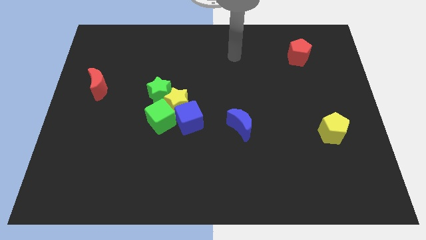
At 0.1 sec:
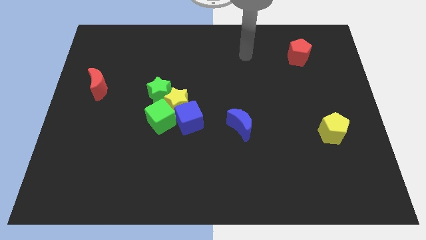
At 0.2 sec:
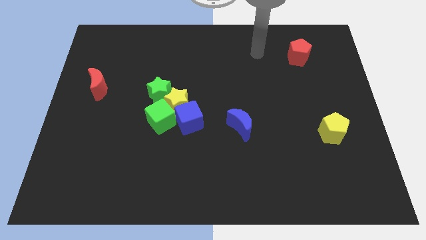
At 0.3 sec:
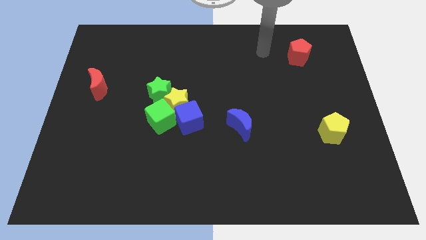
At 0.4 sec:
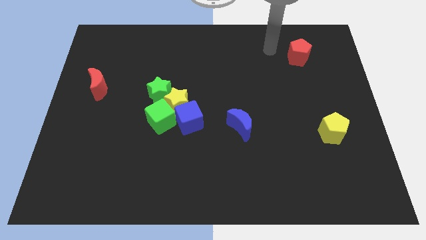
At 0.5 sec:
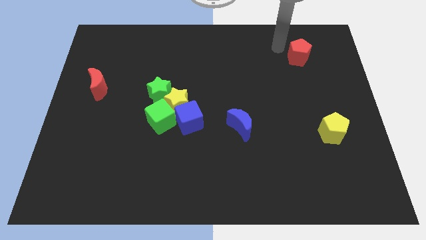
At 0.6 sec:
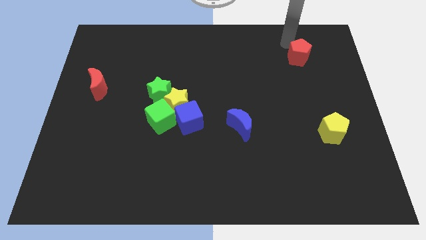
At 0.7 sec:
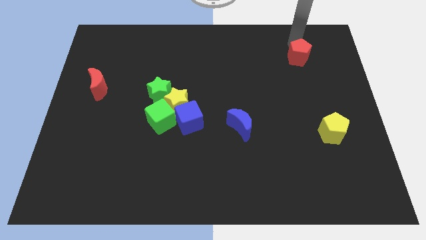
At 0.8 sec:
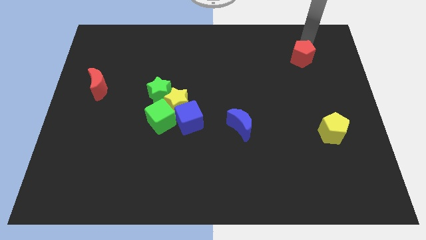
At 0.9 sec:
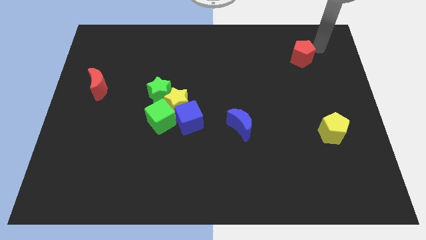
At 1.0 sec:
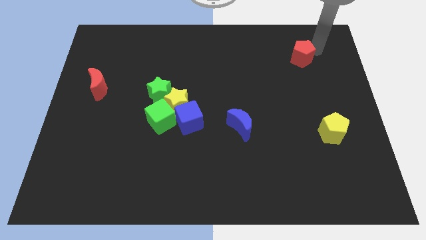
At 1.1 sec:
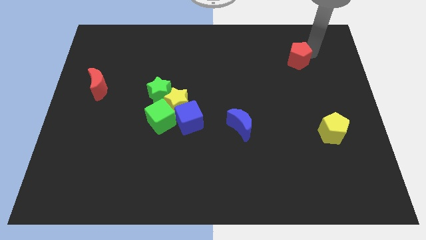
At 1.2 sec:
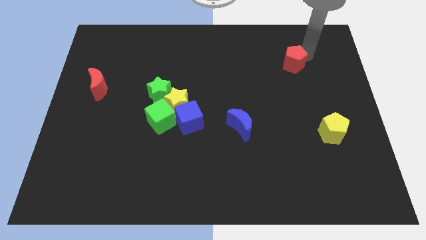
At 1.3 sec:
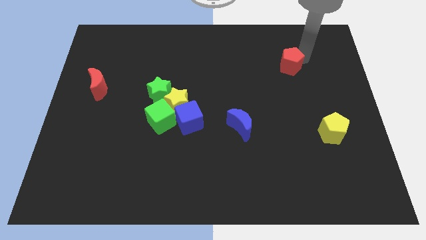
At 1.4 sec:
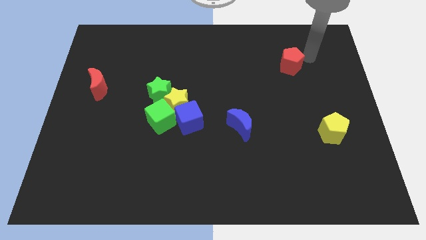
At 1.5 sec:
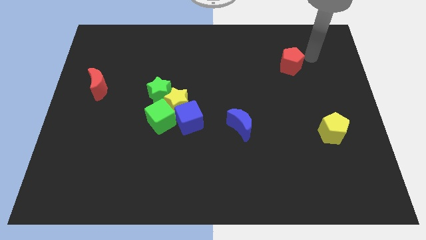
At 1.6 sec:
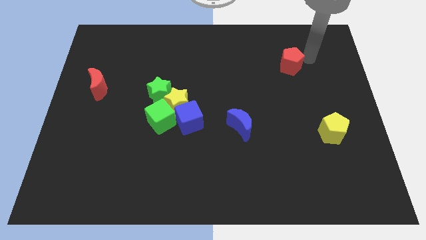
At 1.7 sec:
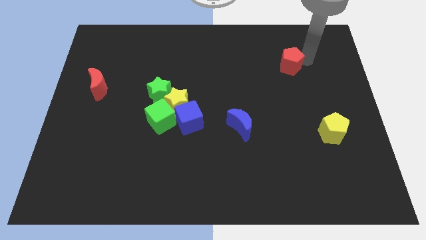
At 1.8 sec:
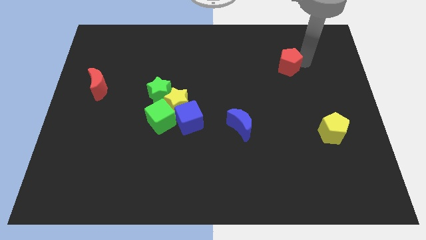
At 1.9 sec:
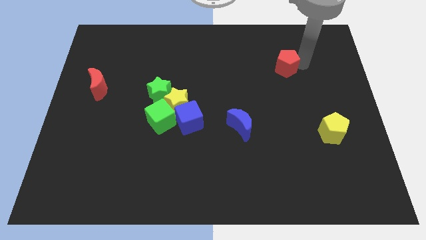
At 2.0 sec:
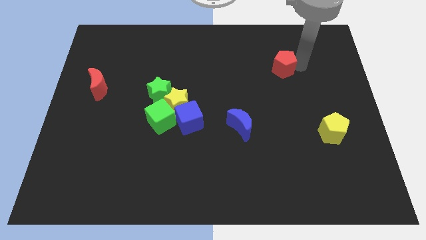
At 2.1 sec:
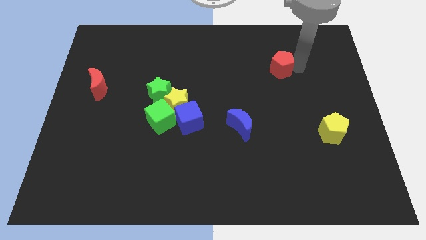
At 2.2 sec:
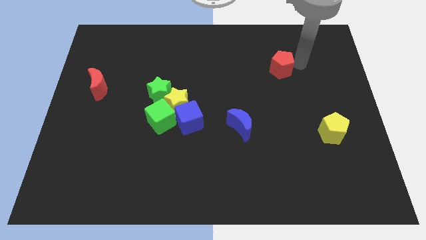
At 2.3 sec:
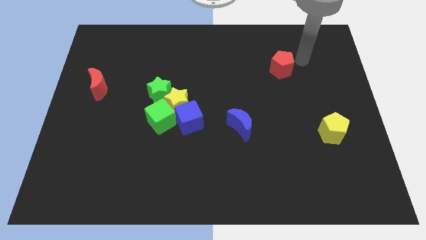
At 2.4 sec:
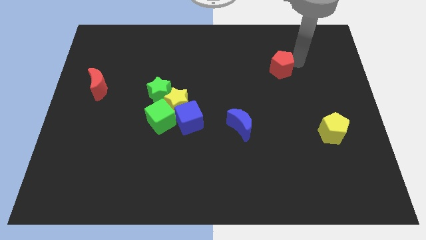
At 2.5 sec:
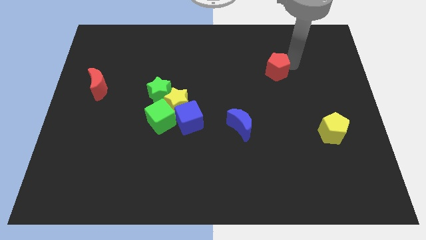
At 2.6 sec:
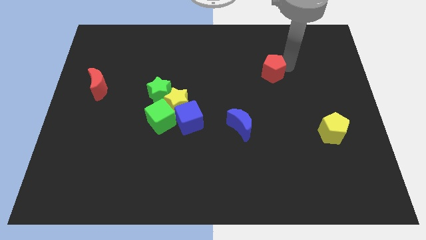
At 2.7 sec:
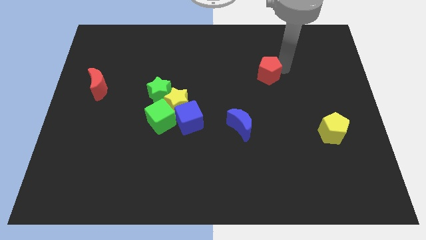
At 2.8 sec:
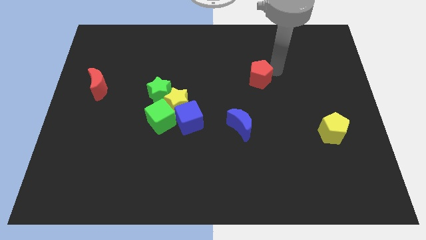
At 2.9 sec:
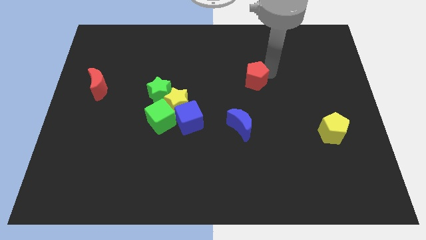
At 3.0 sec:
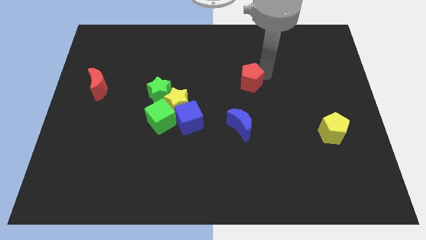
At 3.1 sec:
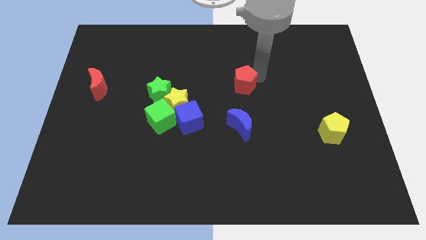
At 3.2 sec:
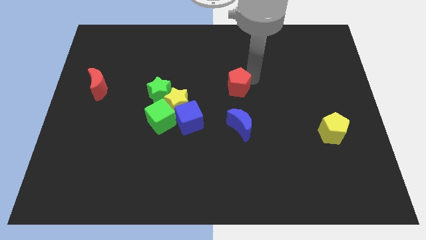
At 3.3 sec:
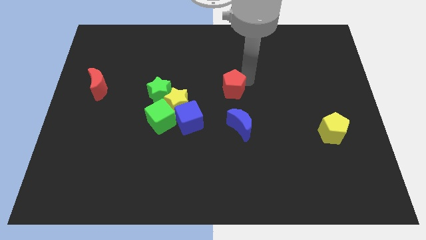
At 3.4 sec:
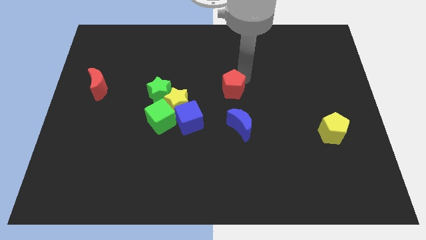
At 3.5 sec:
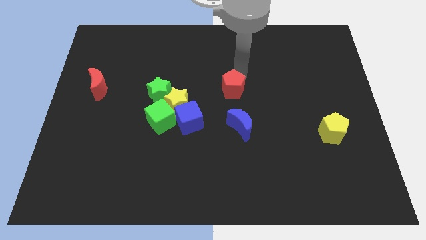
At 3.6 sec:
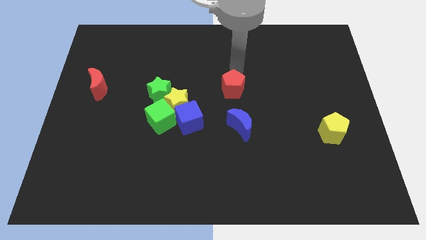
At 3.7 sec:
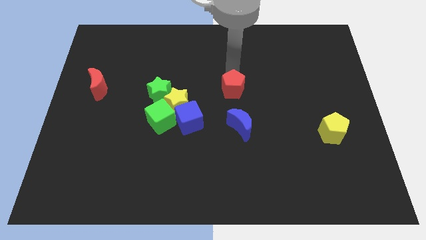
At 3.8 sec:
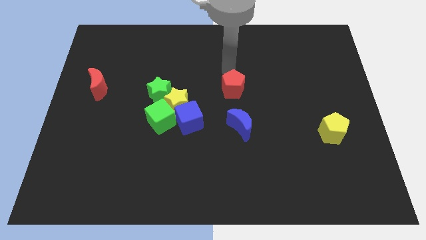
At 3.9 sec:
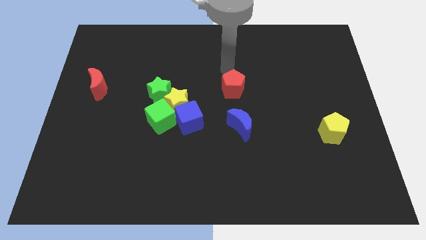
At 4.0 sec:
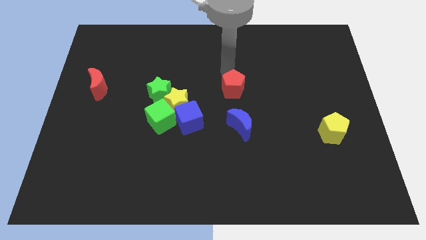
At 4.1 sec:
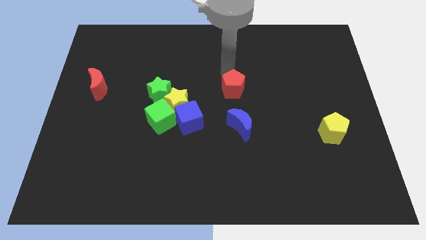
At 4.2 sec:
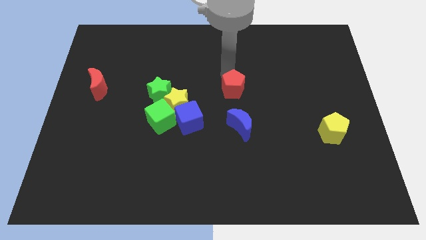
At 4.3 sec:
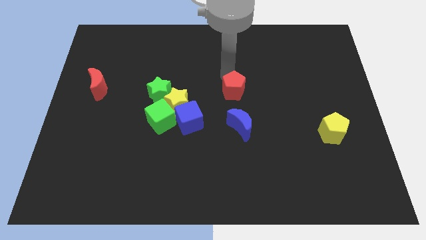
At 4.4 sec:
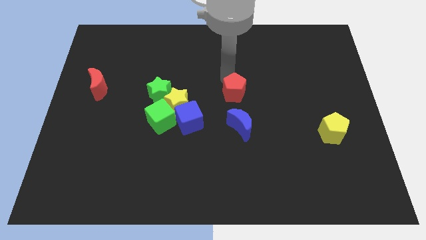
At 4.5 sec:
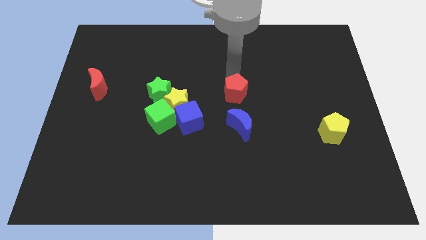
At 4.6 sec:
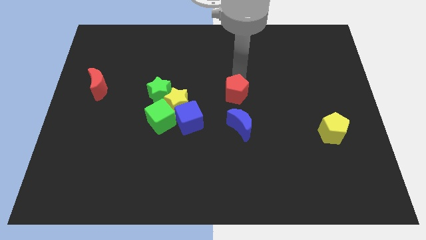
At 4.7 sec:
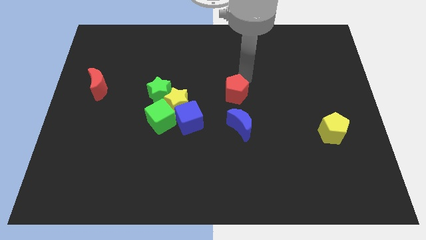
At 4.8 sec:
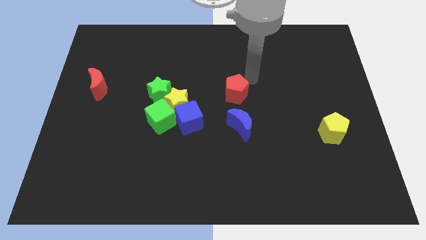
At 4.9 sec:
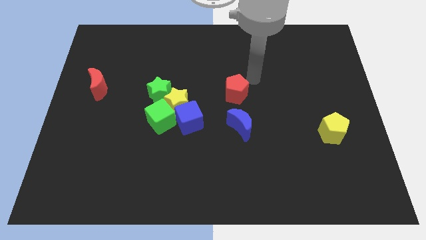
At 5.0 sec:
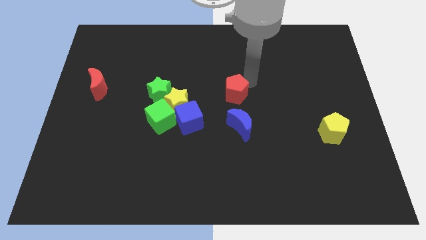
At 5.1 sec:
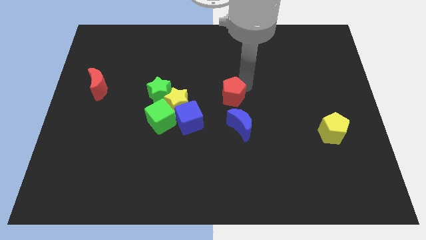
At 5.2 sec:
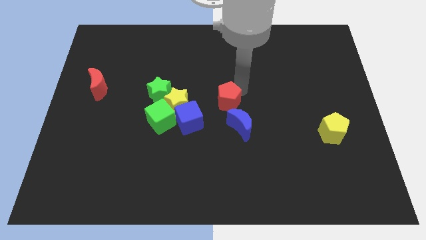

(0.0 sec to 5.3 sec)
slide the red pentagon diagonally up and to the left of the blue moon

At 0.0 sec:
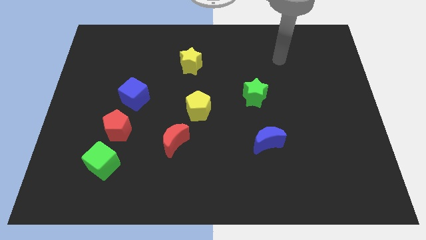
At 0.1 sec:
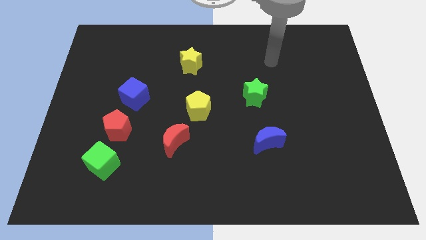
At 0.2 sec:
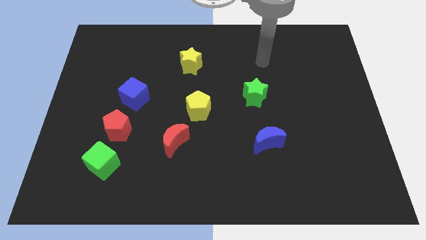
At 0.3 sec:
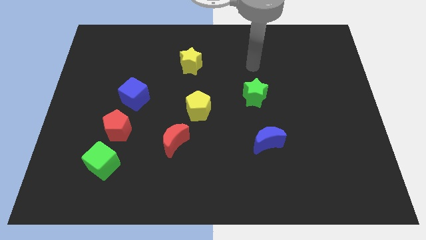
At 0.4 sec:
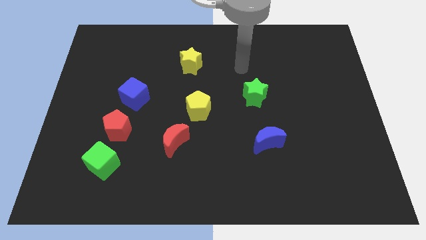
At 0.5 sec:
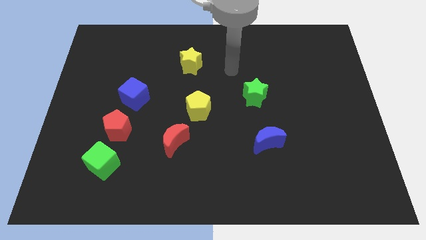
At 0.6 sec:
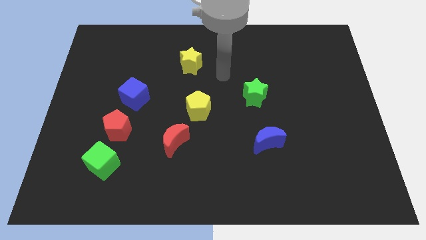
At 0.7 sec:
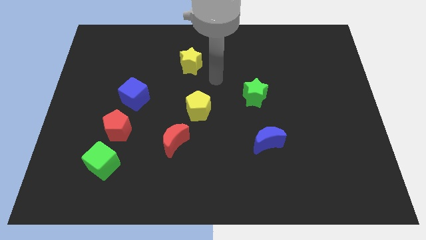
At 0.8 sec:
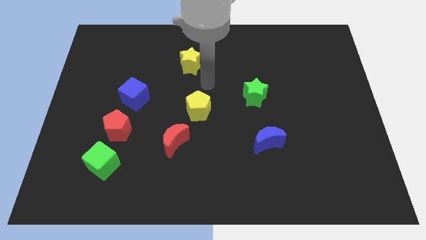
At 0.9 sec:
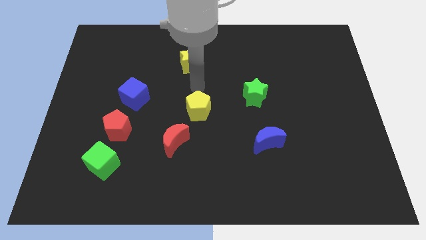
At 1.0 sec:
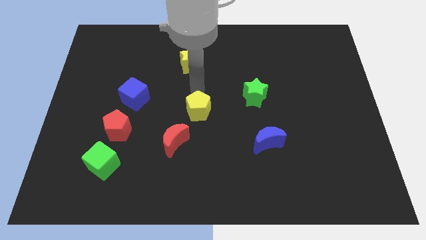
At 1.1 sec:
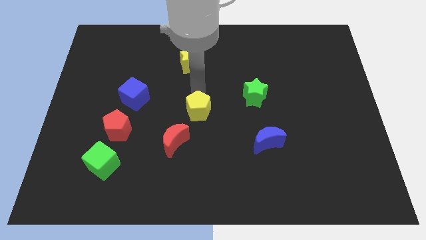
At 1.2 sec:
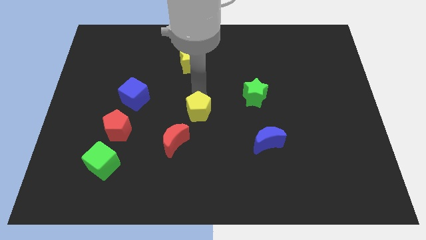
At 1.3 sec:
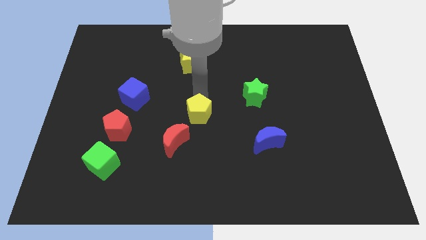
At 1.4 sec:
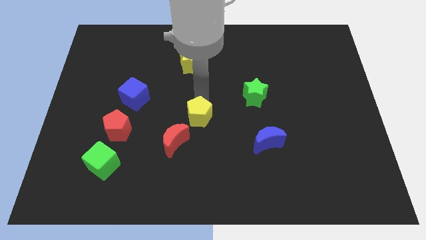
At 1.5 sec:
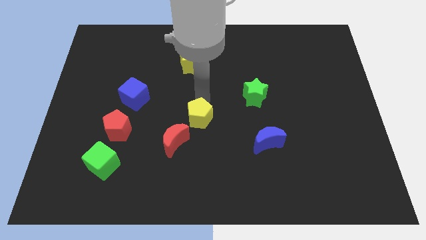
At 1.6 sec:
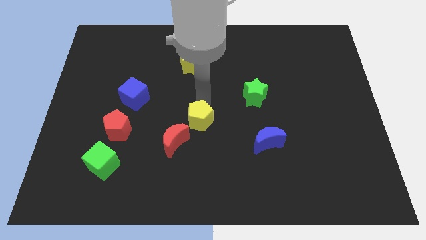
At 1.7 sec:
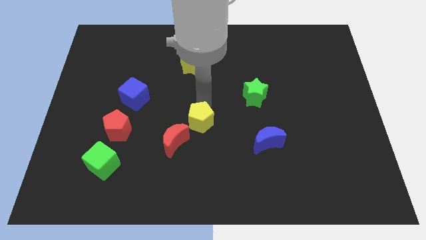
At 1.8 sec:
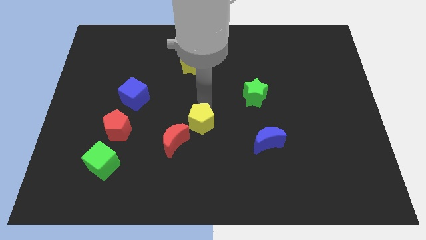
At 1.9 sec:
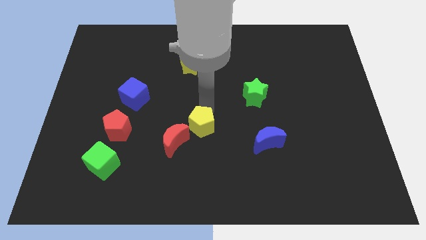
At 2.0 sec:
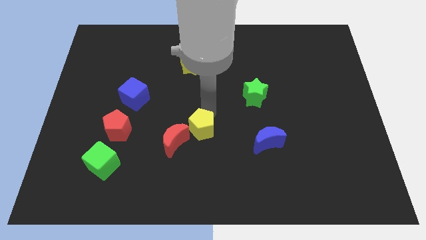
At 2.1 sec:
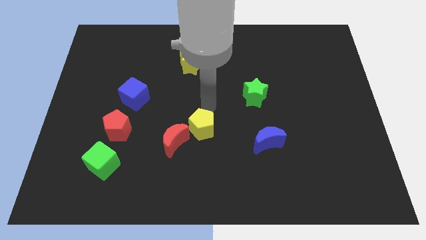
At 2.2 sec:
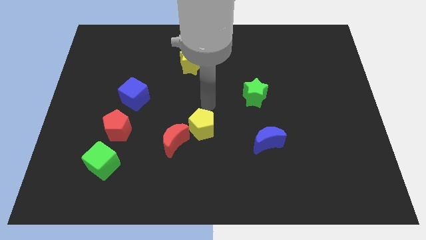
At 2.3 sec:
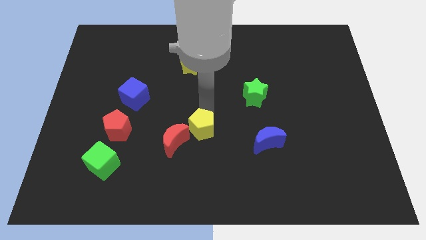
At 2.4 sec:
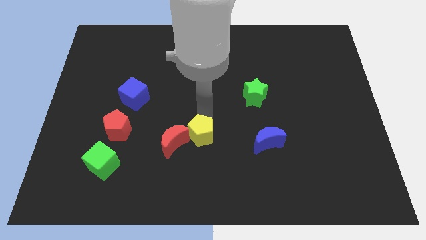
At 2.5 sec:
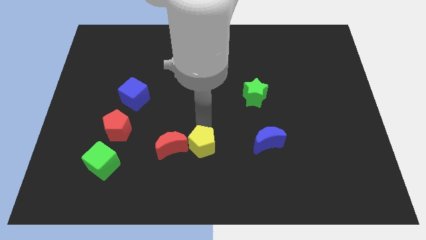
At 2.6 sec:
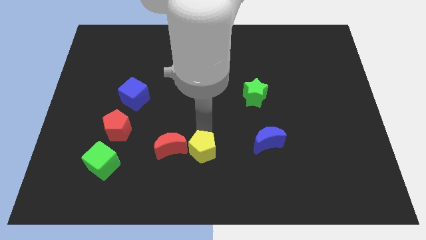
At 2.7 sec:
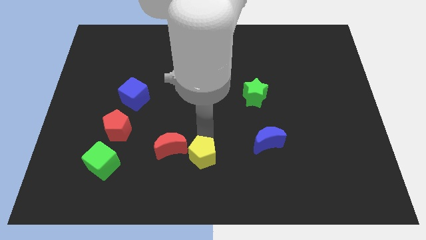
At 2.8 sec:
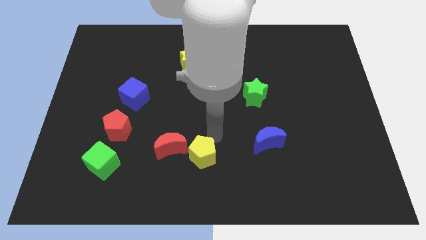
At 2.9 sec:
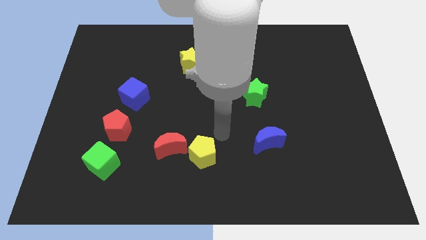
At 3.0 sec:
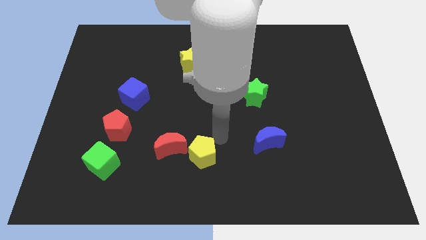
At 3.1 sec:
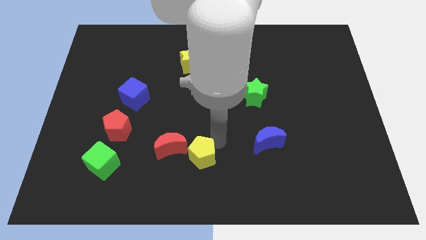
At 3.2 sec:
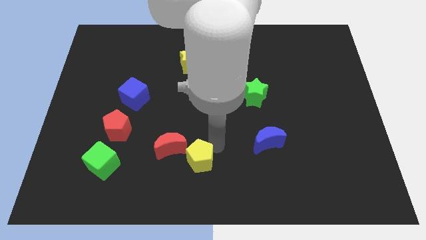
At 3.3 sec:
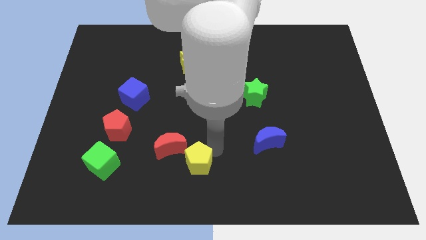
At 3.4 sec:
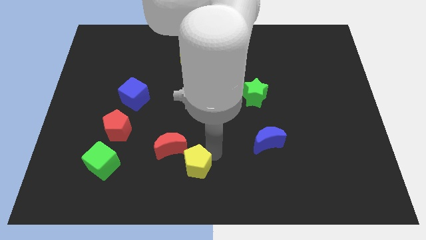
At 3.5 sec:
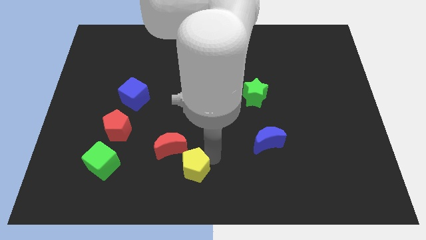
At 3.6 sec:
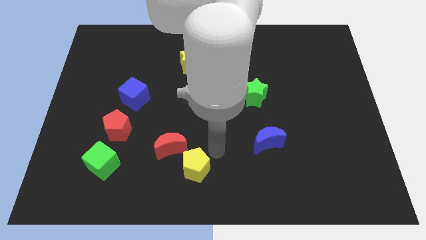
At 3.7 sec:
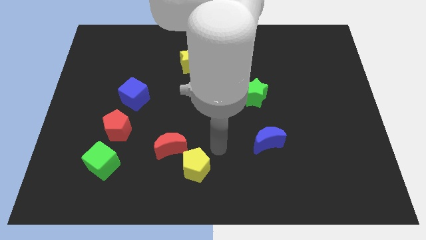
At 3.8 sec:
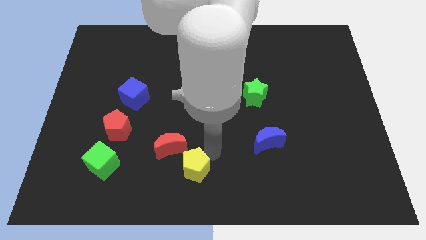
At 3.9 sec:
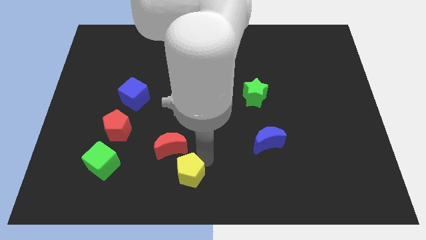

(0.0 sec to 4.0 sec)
move the yellow pentagon to the bottom side of the red moon
